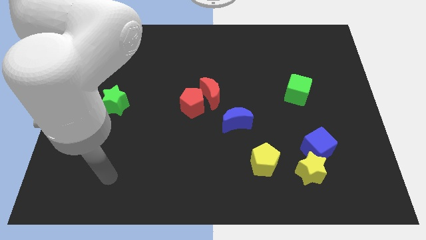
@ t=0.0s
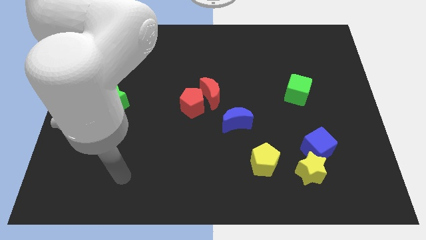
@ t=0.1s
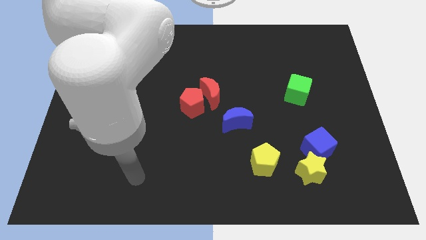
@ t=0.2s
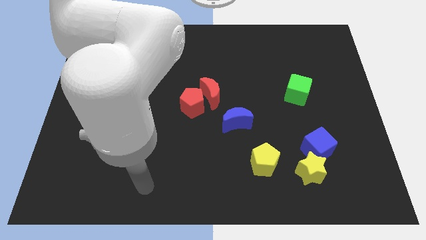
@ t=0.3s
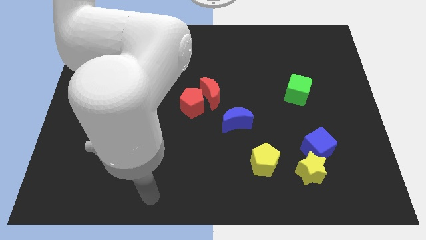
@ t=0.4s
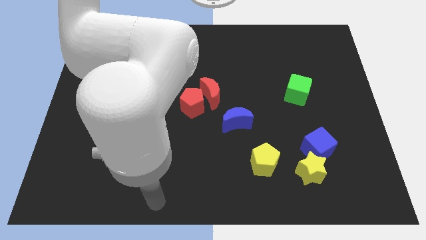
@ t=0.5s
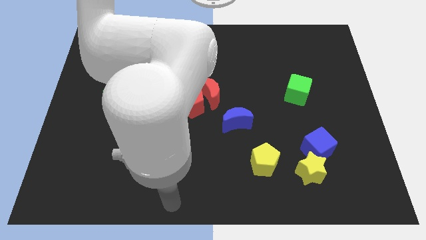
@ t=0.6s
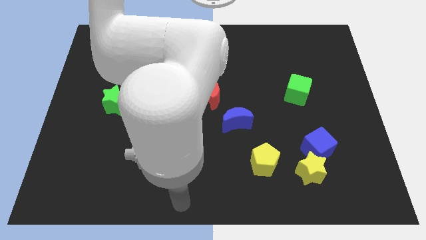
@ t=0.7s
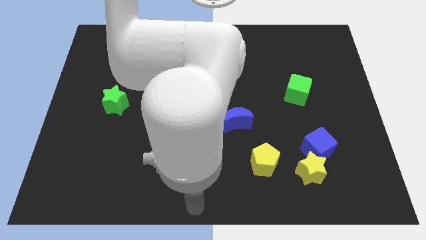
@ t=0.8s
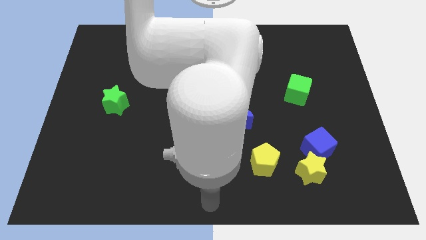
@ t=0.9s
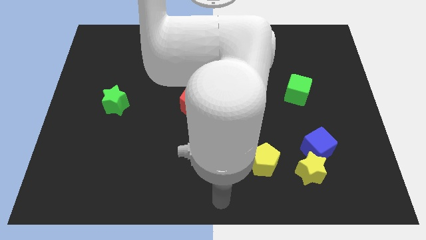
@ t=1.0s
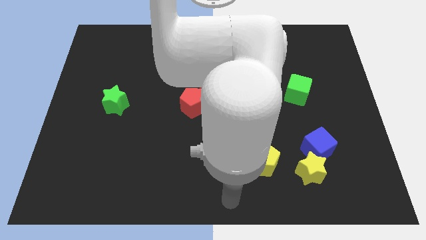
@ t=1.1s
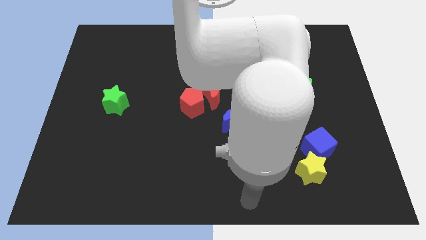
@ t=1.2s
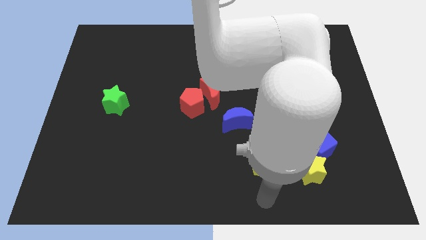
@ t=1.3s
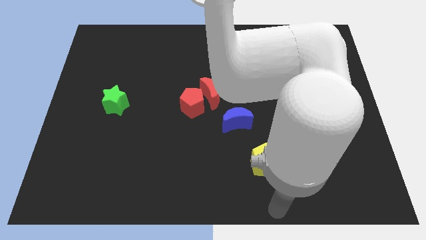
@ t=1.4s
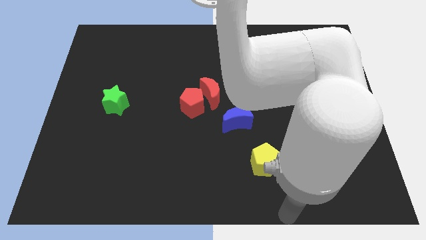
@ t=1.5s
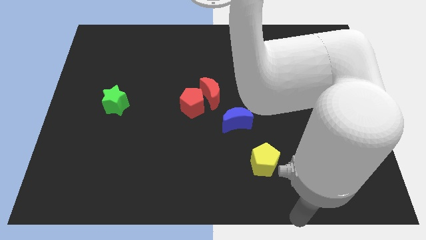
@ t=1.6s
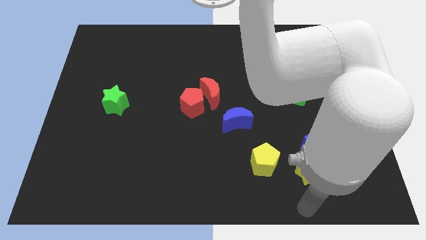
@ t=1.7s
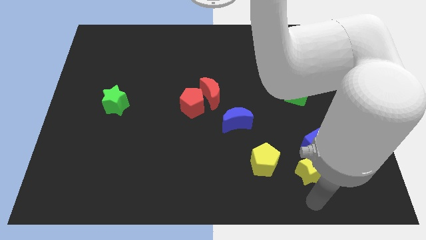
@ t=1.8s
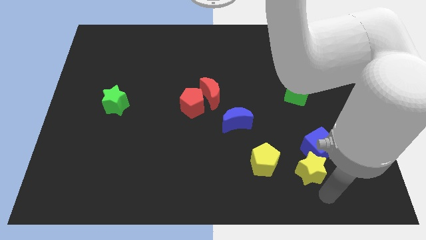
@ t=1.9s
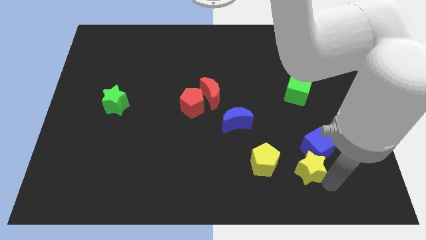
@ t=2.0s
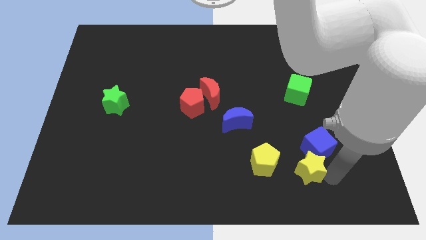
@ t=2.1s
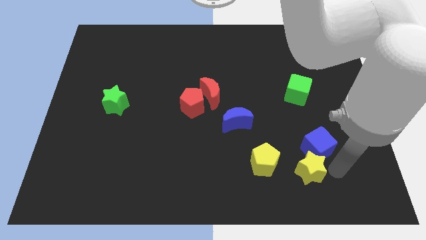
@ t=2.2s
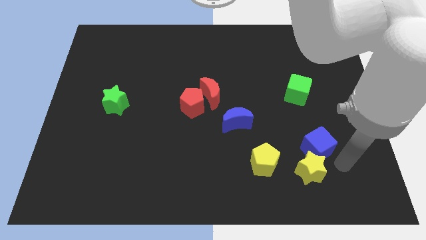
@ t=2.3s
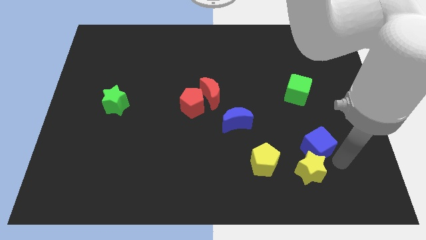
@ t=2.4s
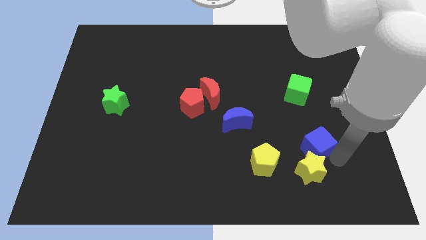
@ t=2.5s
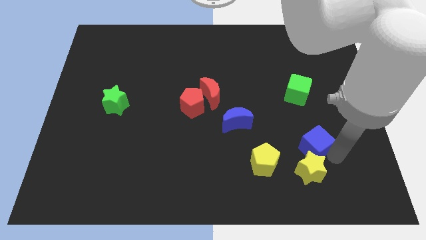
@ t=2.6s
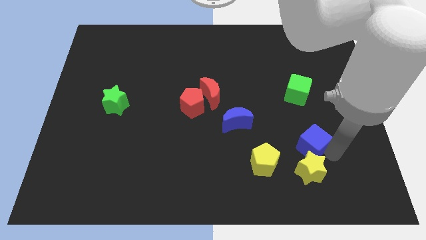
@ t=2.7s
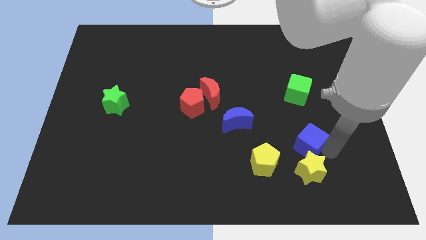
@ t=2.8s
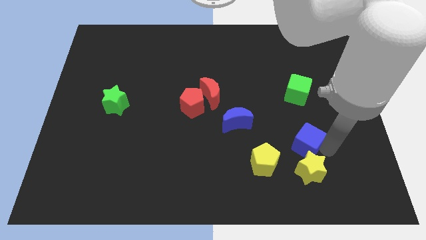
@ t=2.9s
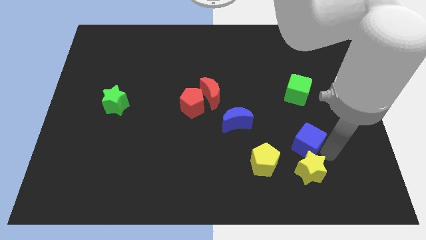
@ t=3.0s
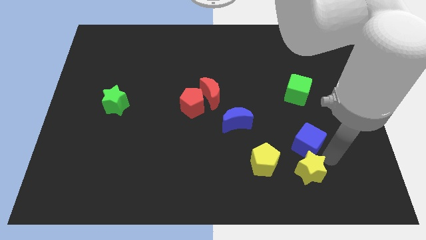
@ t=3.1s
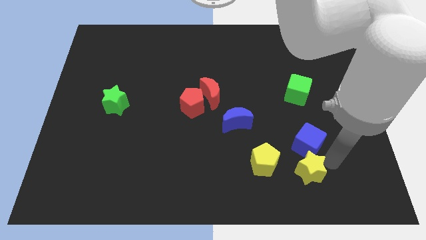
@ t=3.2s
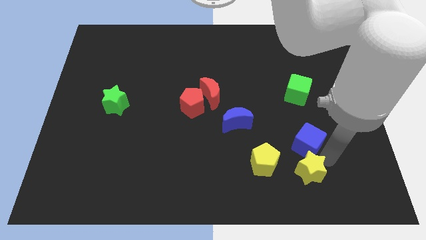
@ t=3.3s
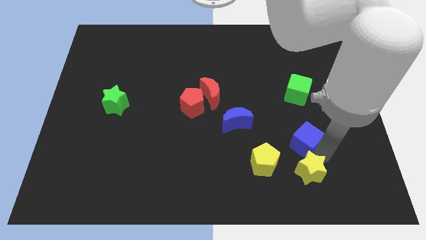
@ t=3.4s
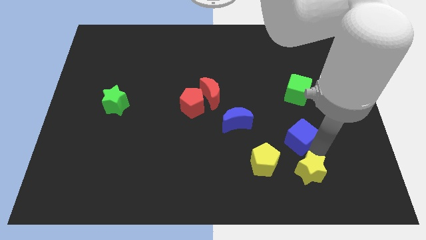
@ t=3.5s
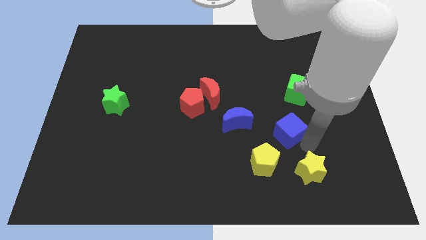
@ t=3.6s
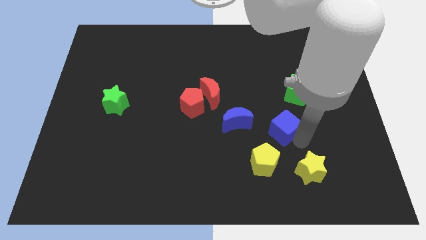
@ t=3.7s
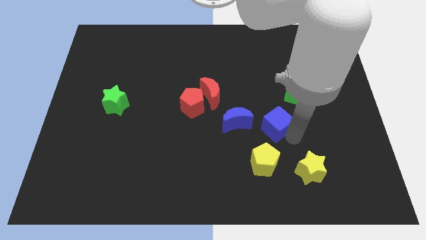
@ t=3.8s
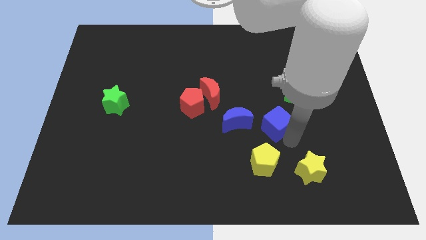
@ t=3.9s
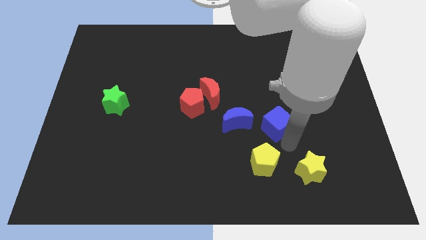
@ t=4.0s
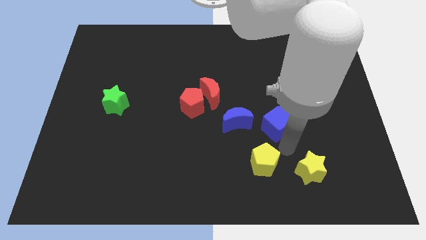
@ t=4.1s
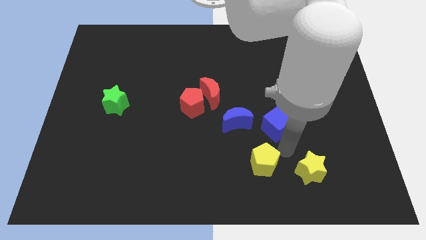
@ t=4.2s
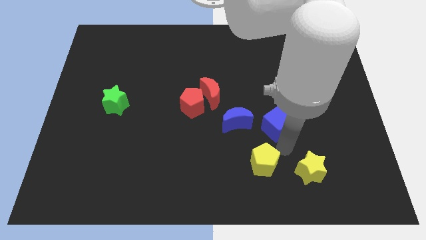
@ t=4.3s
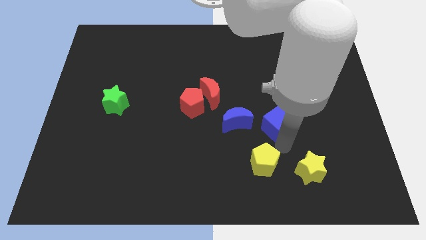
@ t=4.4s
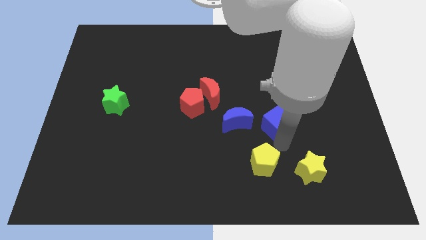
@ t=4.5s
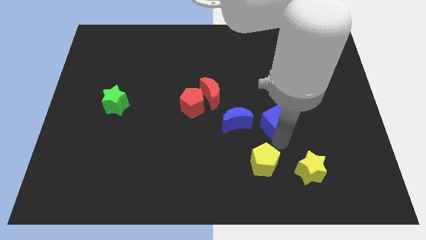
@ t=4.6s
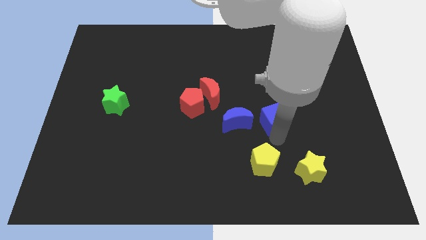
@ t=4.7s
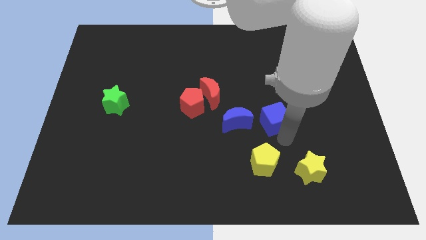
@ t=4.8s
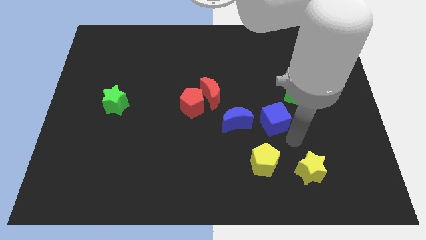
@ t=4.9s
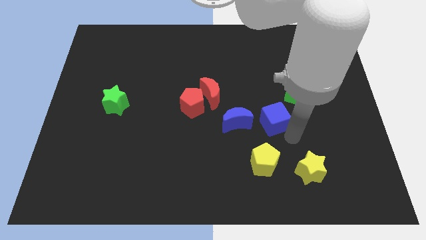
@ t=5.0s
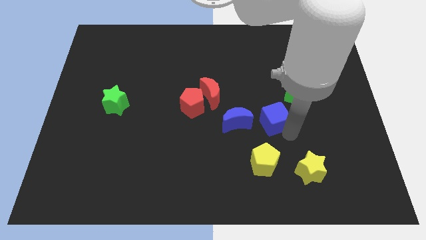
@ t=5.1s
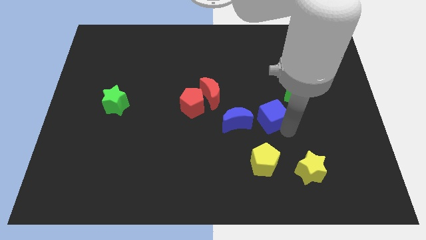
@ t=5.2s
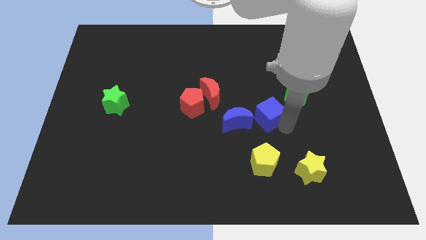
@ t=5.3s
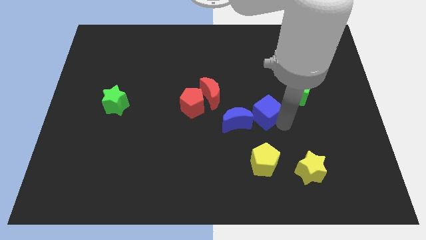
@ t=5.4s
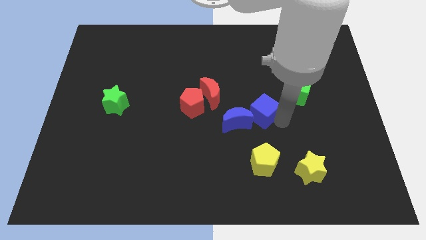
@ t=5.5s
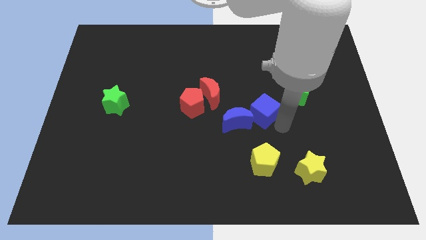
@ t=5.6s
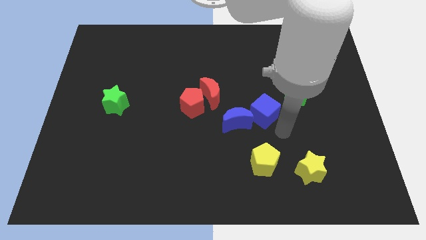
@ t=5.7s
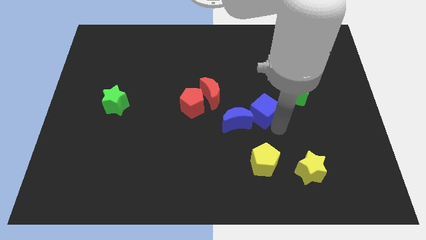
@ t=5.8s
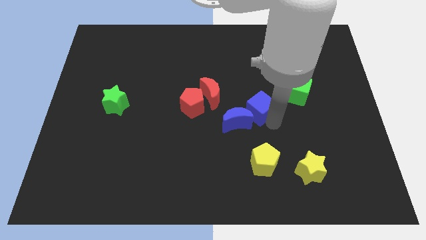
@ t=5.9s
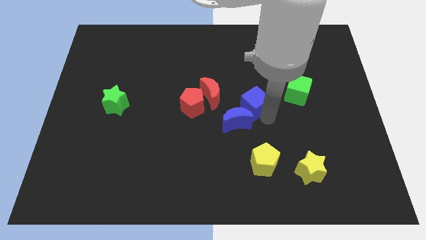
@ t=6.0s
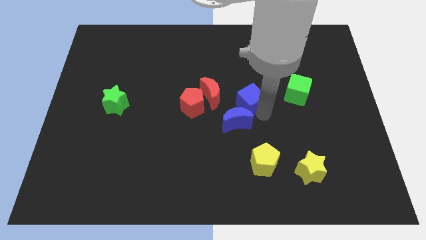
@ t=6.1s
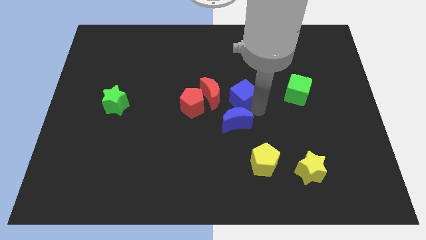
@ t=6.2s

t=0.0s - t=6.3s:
move the blue cube diagonally upwards and to the left

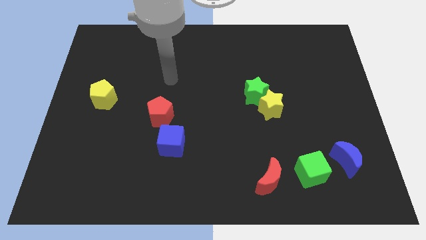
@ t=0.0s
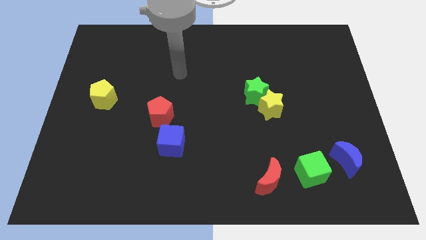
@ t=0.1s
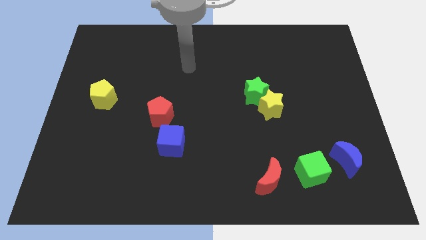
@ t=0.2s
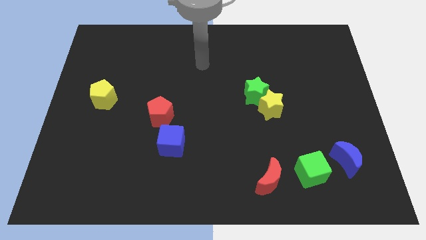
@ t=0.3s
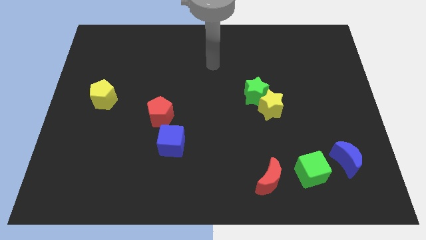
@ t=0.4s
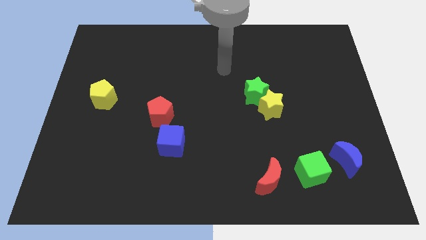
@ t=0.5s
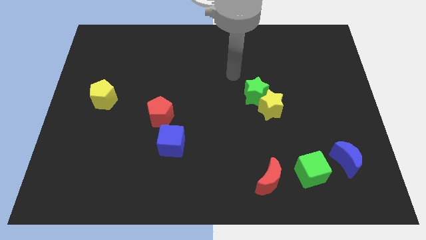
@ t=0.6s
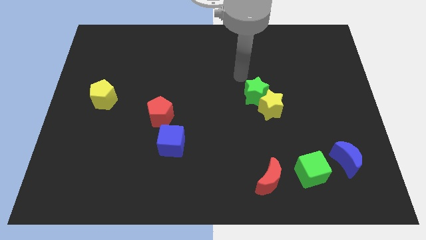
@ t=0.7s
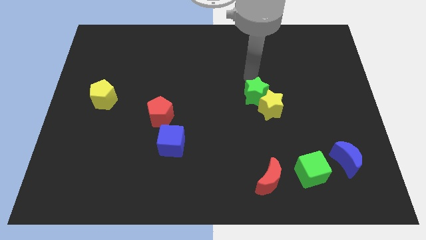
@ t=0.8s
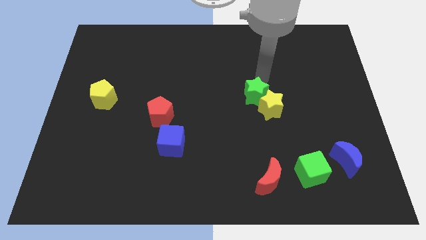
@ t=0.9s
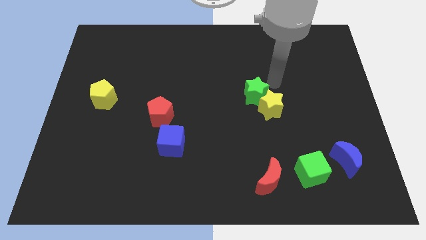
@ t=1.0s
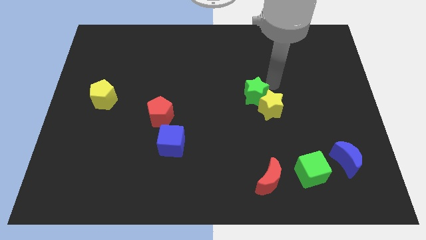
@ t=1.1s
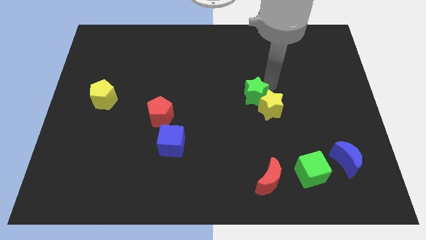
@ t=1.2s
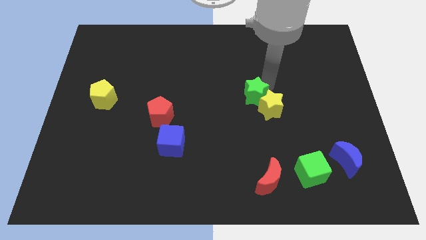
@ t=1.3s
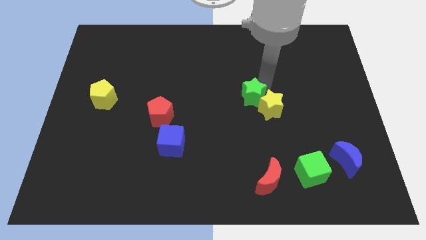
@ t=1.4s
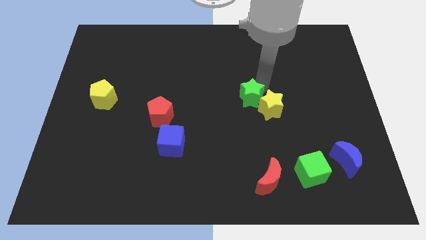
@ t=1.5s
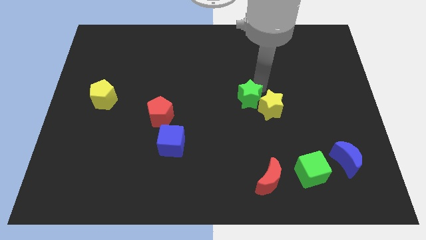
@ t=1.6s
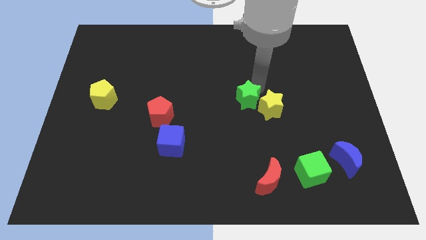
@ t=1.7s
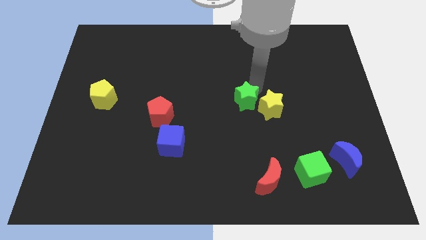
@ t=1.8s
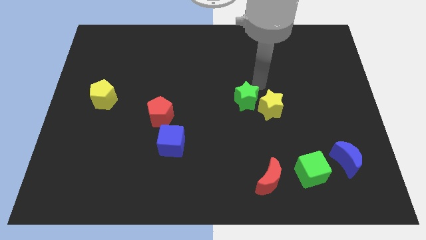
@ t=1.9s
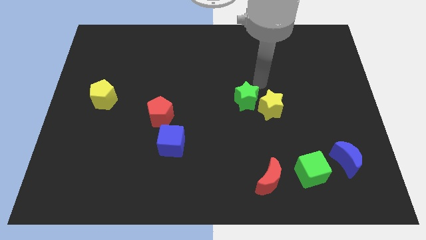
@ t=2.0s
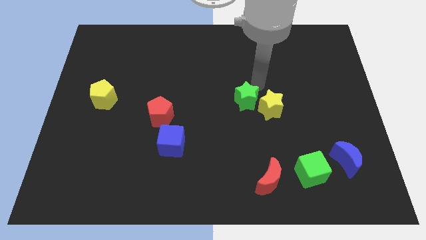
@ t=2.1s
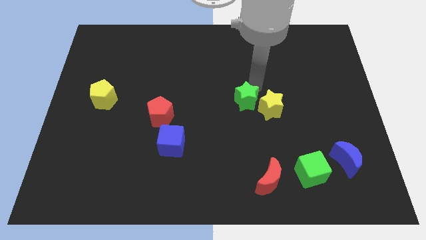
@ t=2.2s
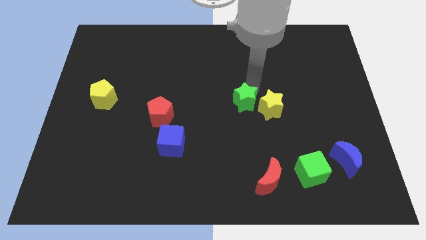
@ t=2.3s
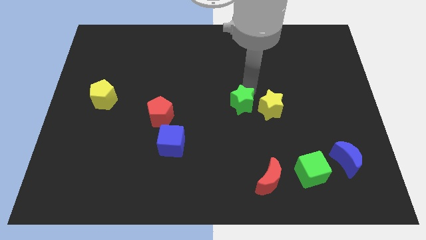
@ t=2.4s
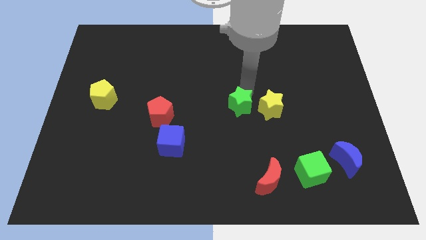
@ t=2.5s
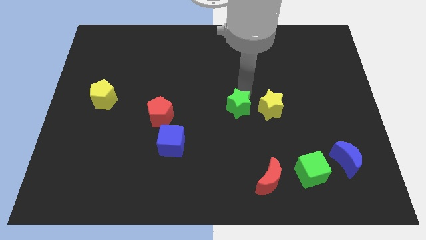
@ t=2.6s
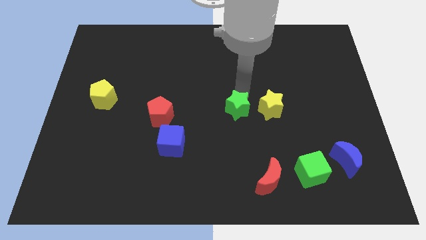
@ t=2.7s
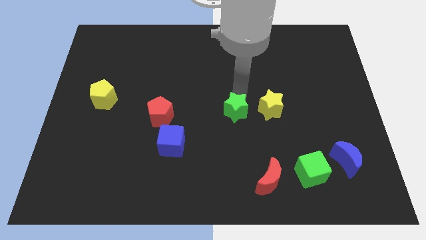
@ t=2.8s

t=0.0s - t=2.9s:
slide the green star down and then left somewhat
